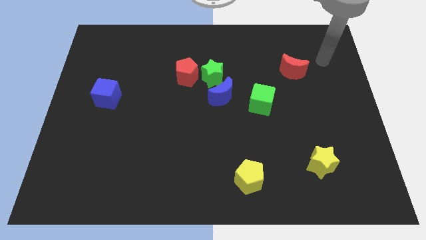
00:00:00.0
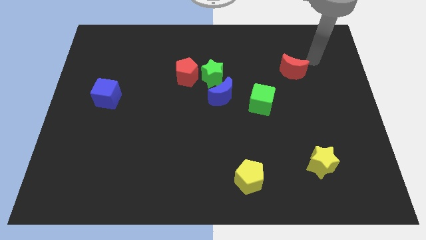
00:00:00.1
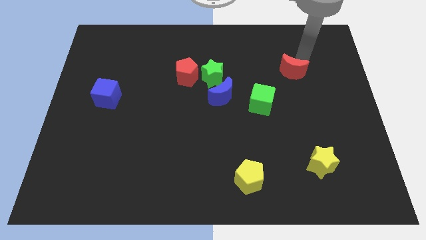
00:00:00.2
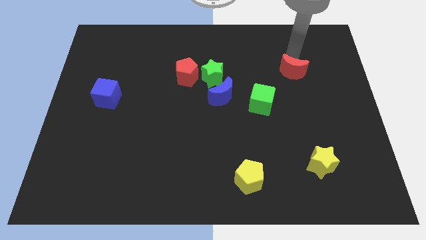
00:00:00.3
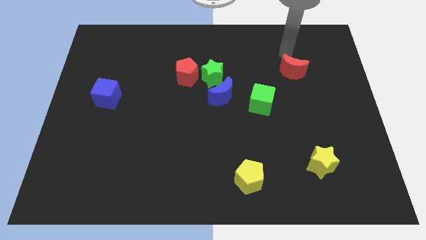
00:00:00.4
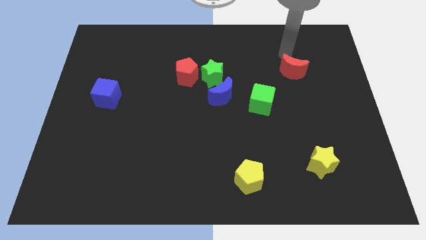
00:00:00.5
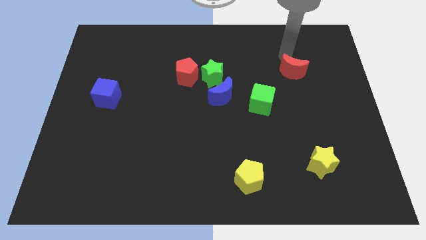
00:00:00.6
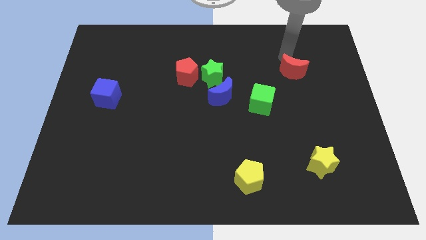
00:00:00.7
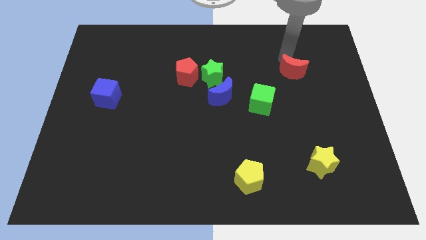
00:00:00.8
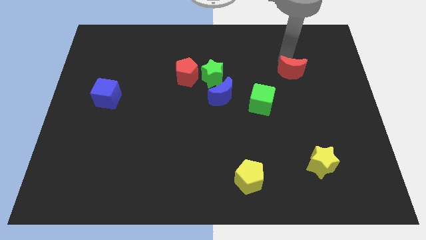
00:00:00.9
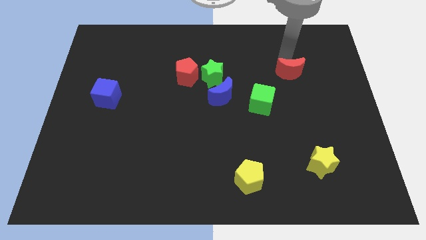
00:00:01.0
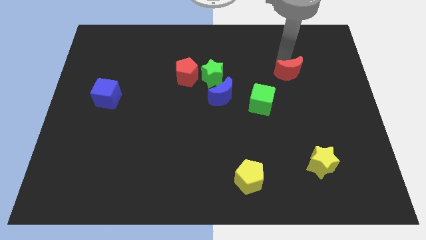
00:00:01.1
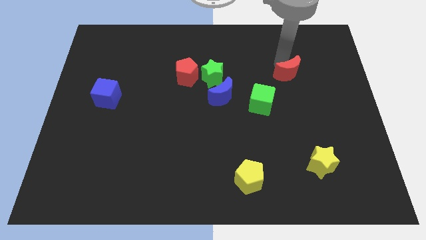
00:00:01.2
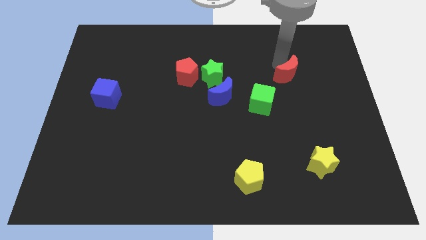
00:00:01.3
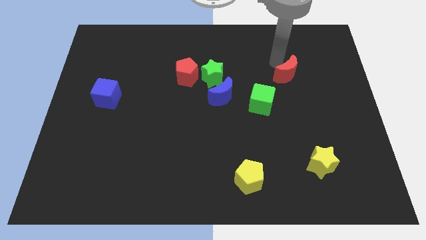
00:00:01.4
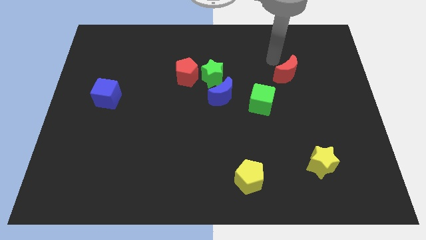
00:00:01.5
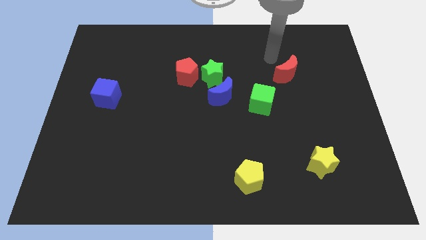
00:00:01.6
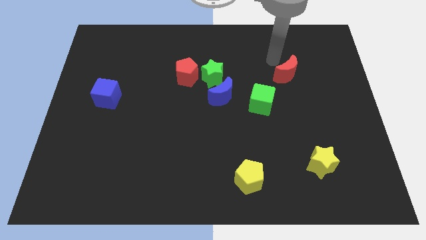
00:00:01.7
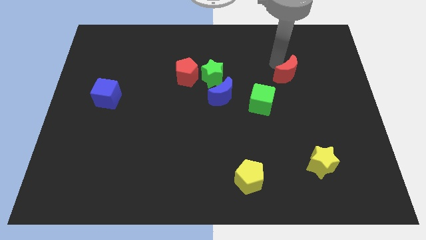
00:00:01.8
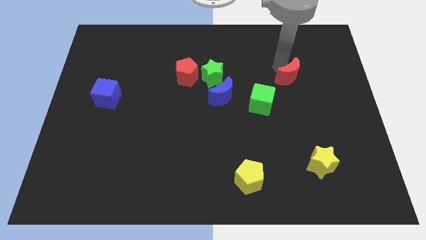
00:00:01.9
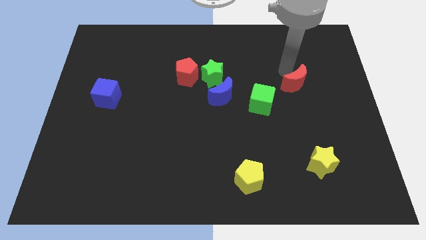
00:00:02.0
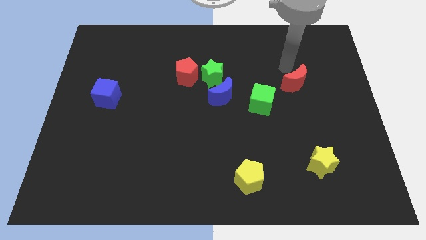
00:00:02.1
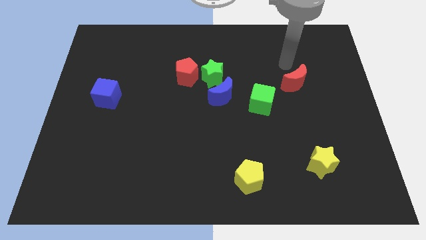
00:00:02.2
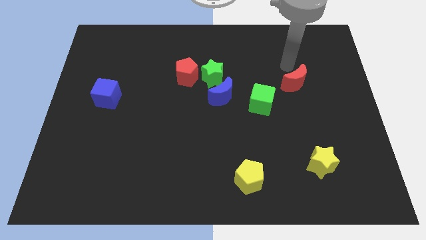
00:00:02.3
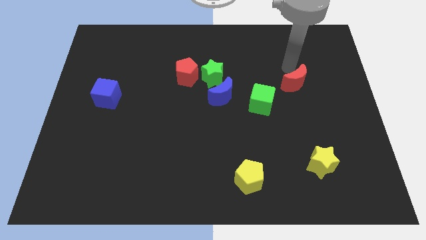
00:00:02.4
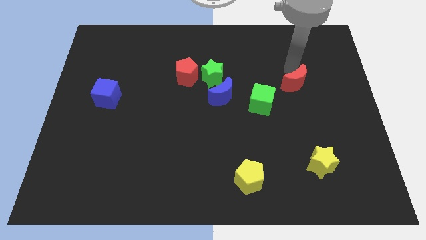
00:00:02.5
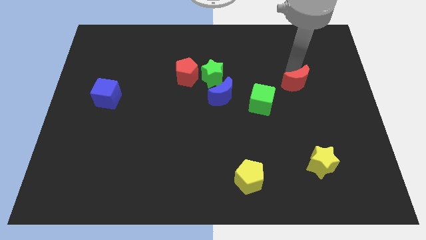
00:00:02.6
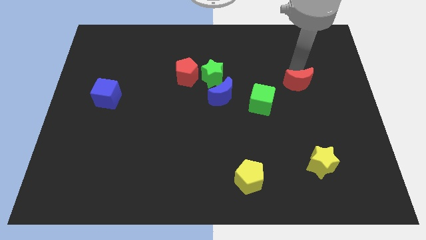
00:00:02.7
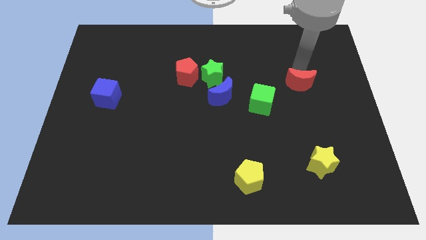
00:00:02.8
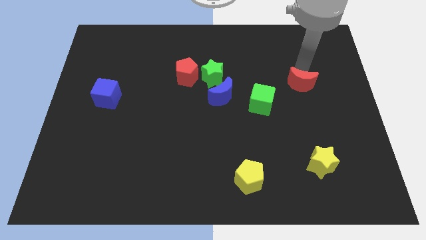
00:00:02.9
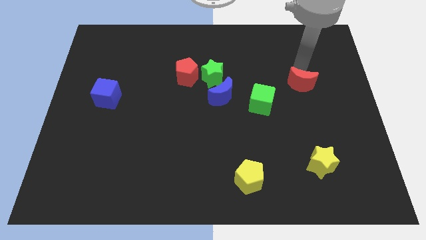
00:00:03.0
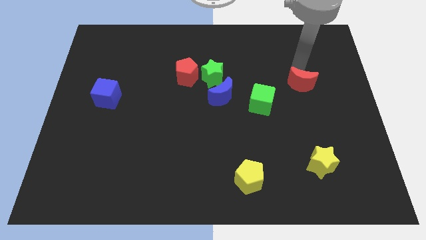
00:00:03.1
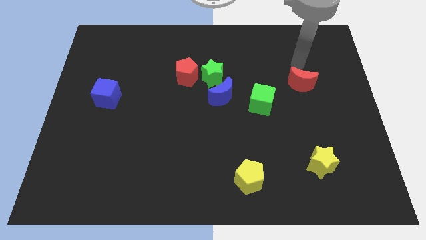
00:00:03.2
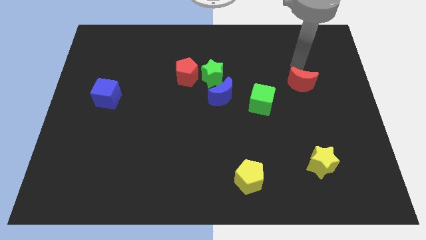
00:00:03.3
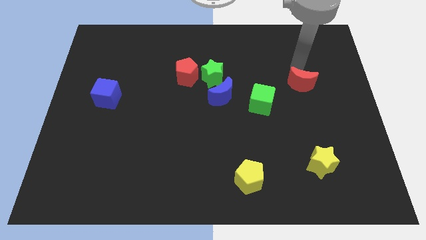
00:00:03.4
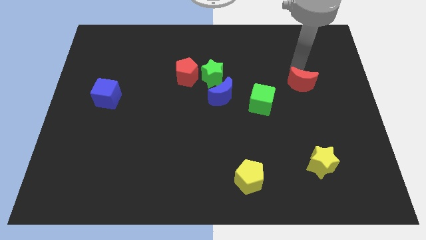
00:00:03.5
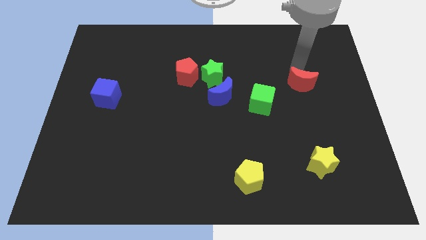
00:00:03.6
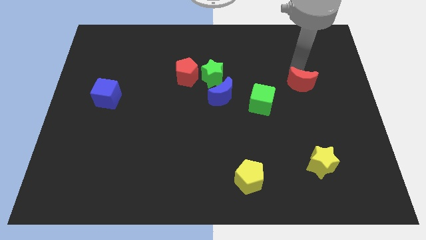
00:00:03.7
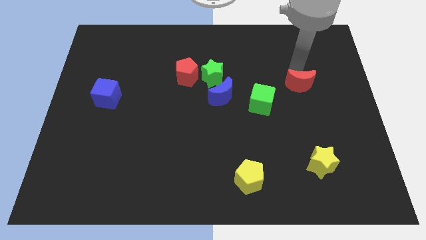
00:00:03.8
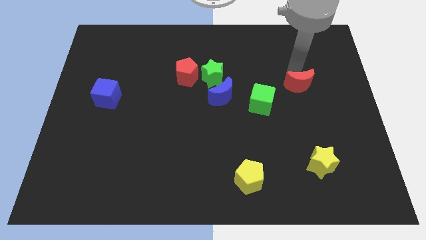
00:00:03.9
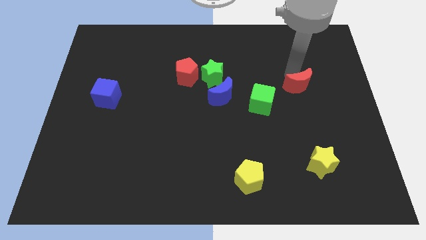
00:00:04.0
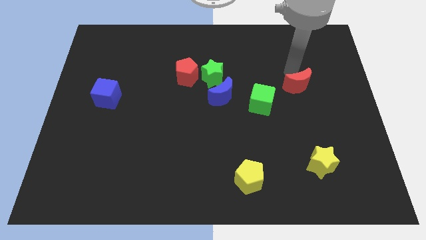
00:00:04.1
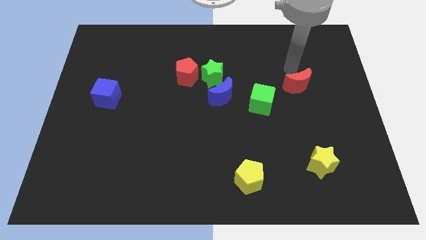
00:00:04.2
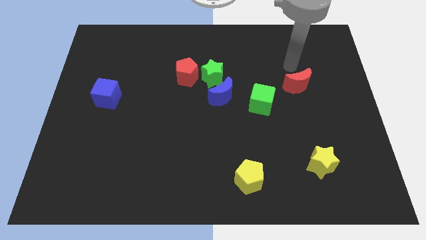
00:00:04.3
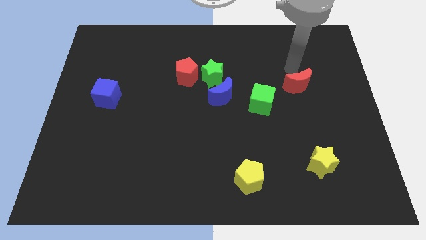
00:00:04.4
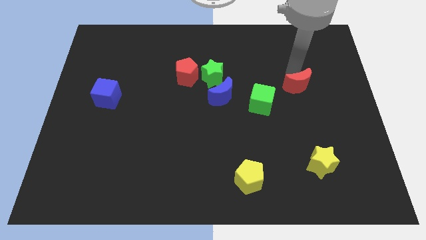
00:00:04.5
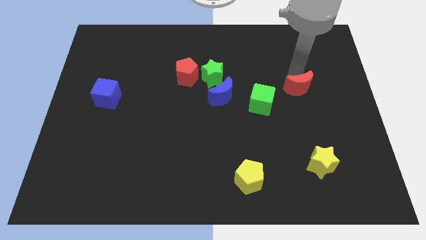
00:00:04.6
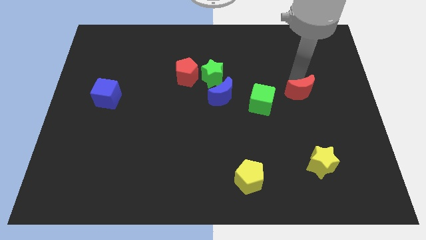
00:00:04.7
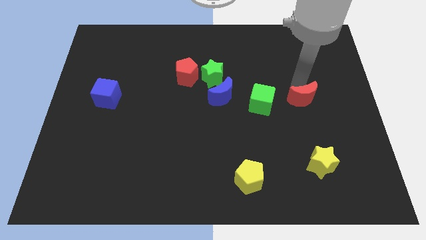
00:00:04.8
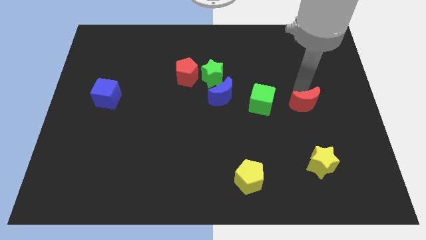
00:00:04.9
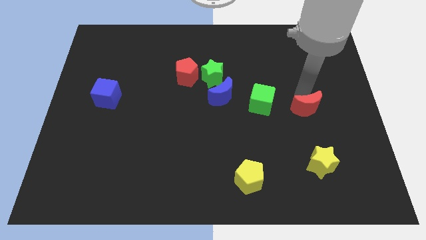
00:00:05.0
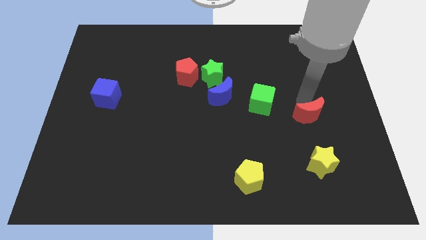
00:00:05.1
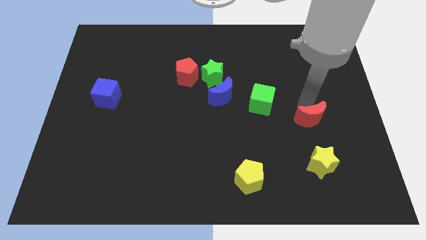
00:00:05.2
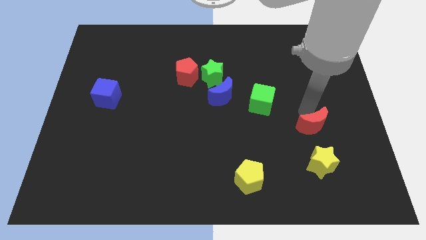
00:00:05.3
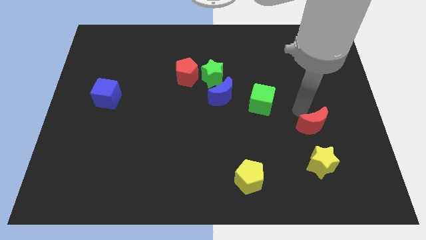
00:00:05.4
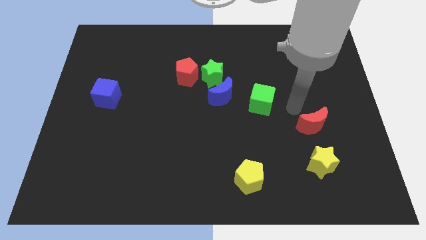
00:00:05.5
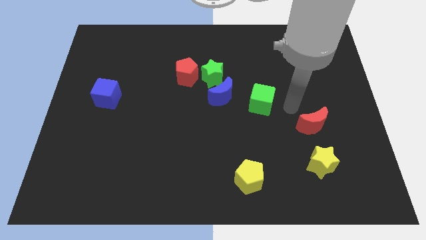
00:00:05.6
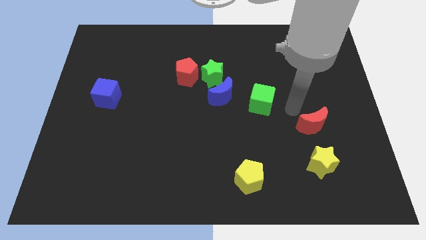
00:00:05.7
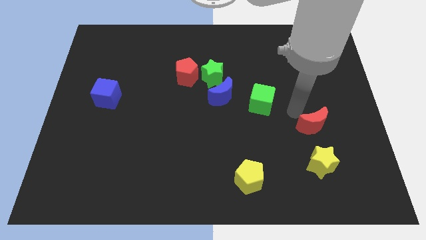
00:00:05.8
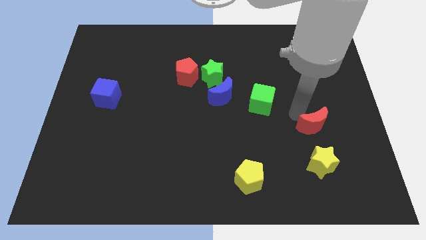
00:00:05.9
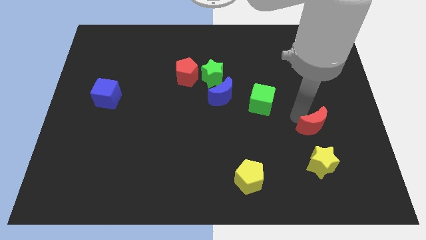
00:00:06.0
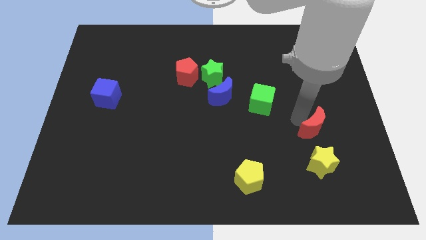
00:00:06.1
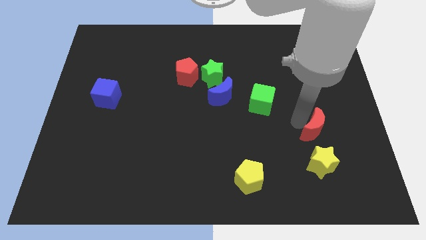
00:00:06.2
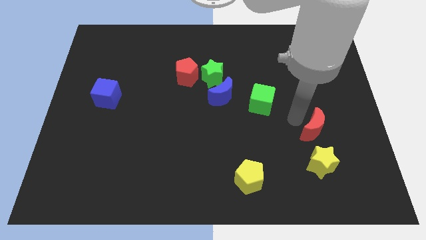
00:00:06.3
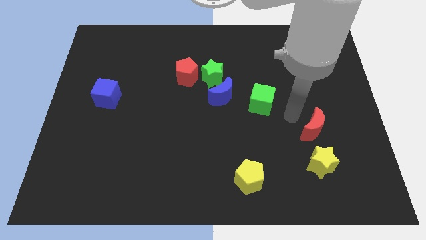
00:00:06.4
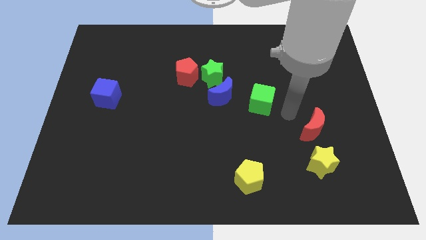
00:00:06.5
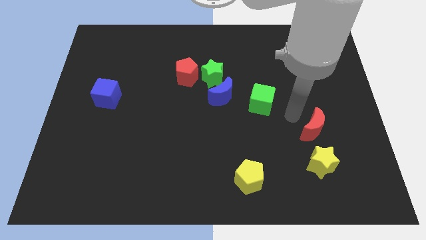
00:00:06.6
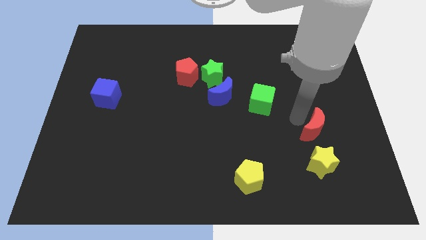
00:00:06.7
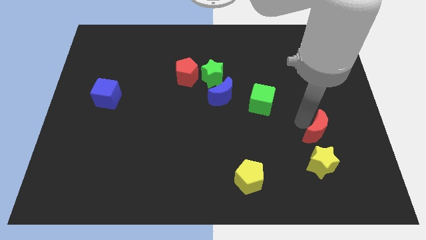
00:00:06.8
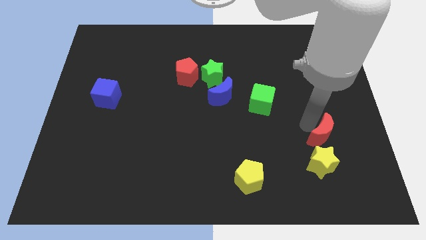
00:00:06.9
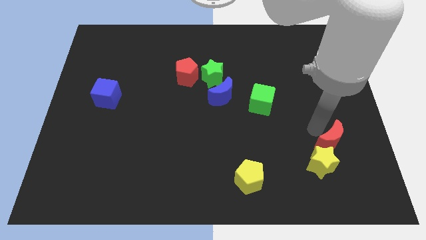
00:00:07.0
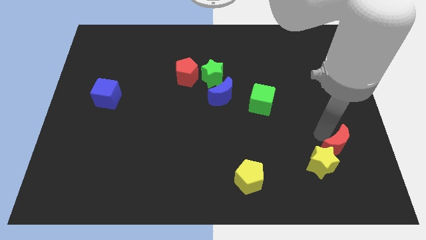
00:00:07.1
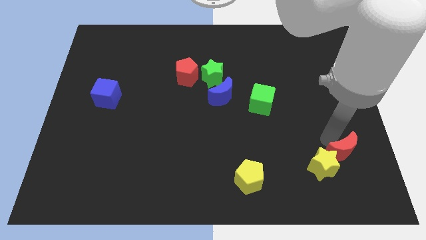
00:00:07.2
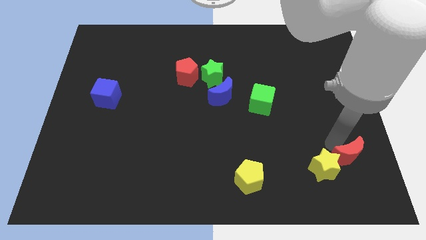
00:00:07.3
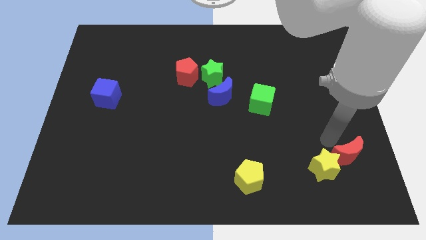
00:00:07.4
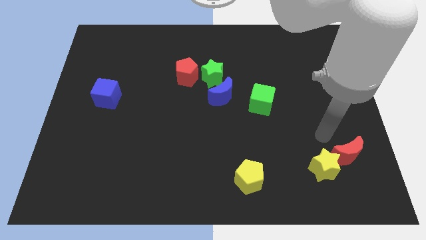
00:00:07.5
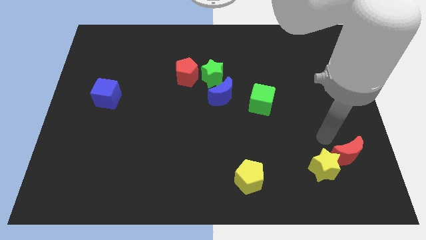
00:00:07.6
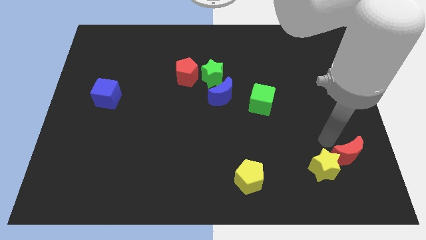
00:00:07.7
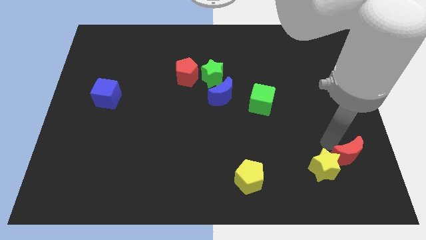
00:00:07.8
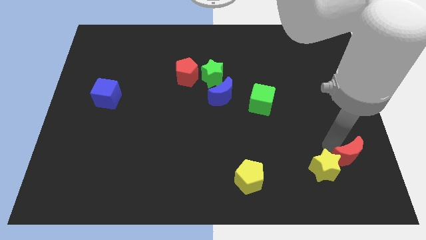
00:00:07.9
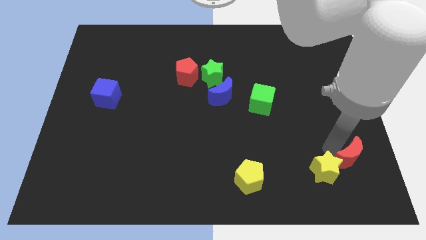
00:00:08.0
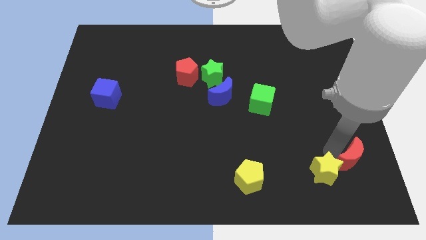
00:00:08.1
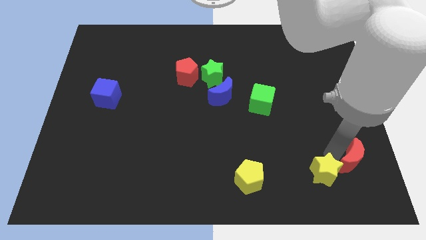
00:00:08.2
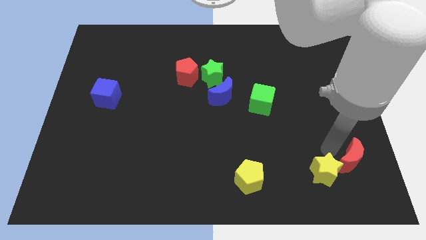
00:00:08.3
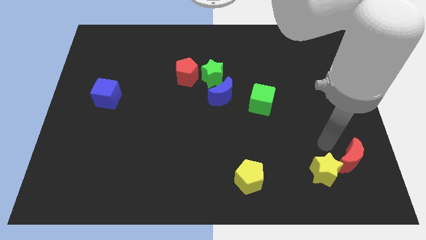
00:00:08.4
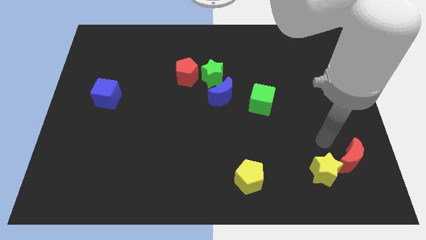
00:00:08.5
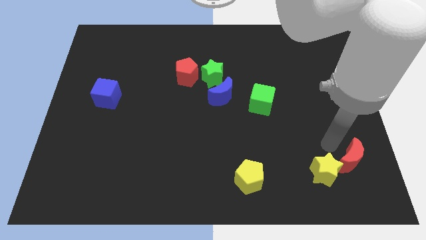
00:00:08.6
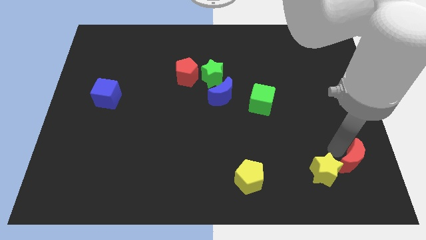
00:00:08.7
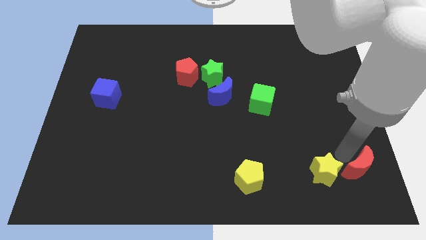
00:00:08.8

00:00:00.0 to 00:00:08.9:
put the red moon to the lower right corner
